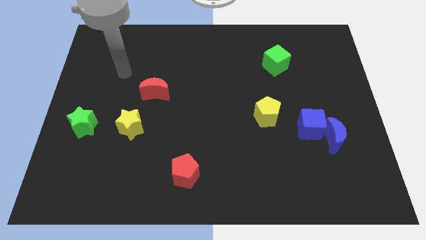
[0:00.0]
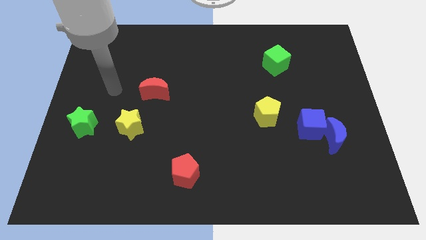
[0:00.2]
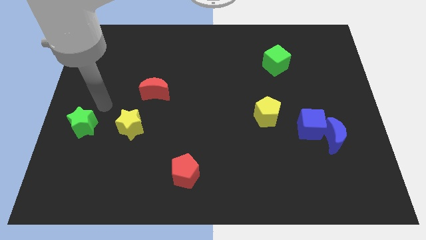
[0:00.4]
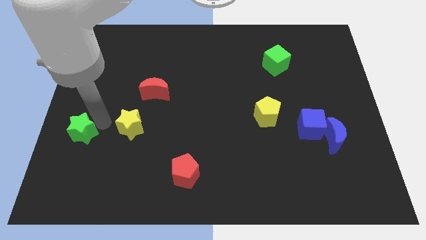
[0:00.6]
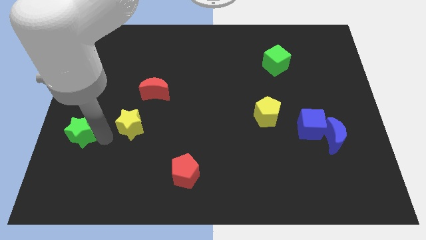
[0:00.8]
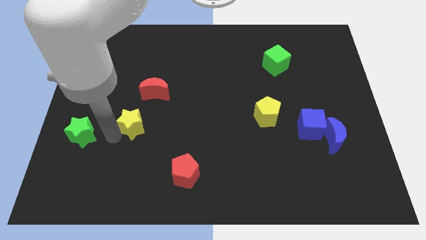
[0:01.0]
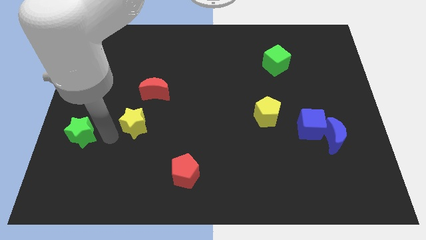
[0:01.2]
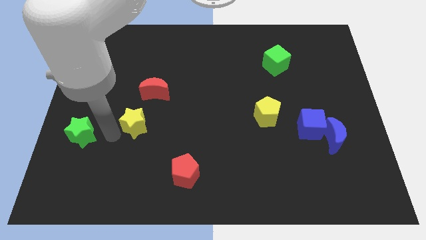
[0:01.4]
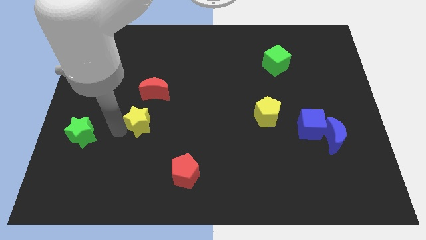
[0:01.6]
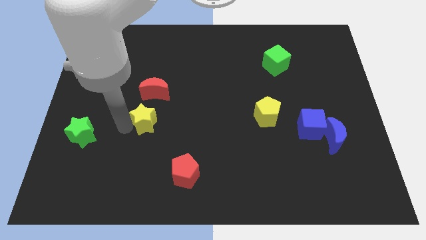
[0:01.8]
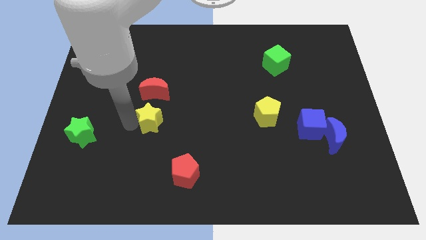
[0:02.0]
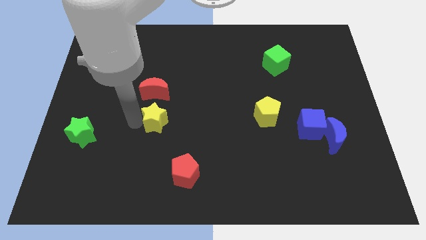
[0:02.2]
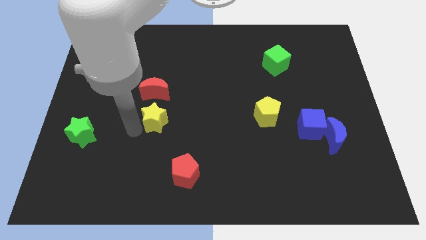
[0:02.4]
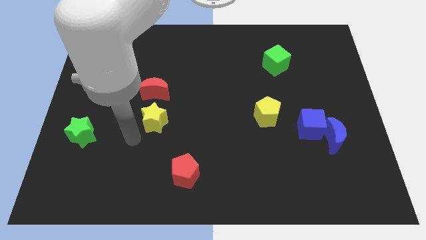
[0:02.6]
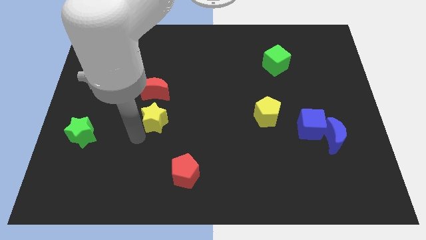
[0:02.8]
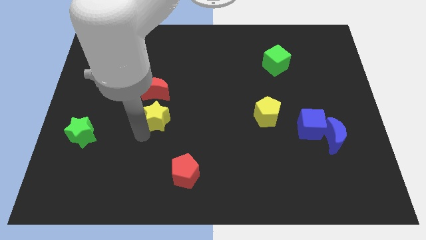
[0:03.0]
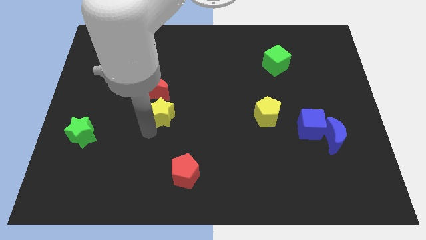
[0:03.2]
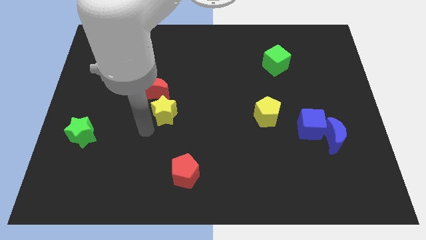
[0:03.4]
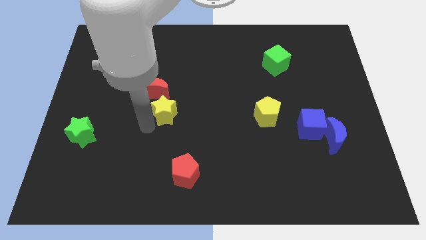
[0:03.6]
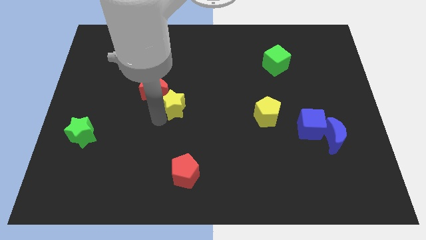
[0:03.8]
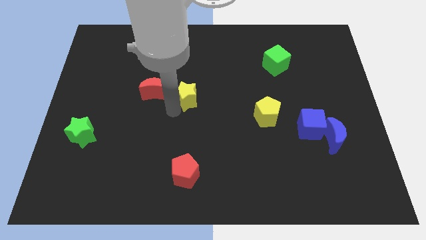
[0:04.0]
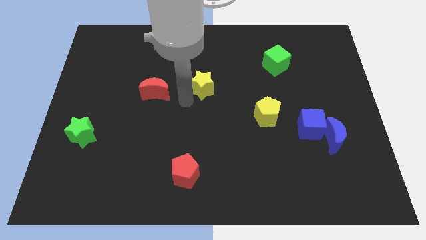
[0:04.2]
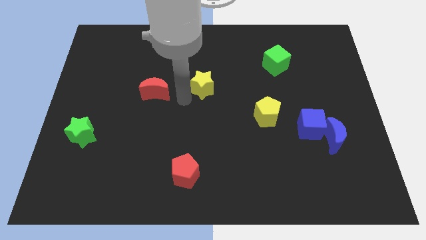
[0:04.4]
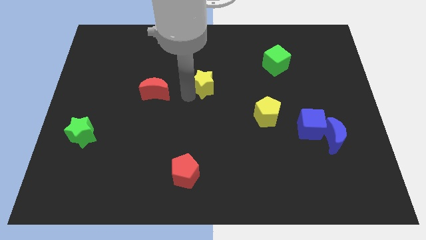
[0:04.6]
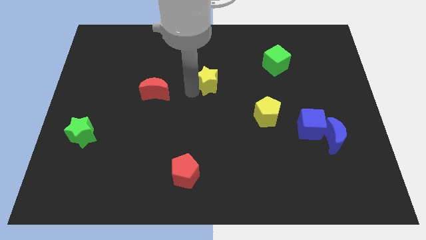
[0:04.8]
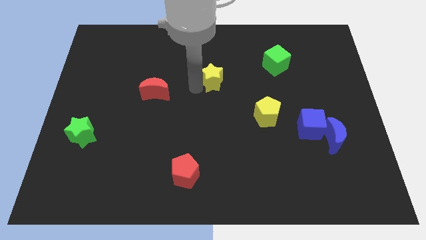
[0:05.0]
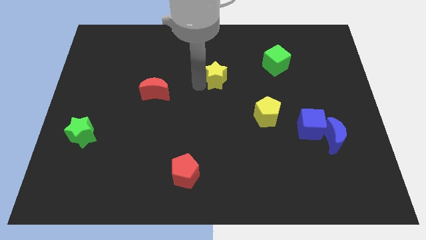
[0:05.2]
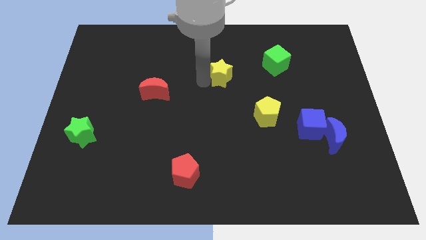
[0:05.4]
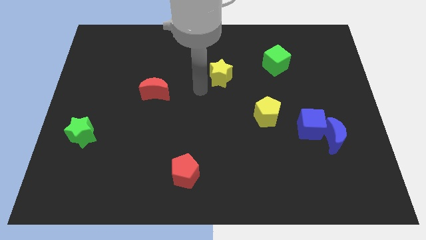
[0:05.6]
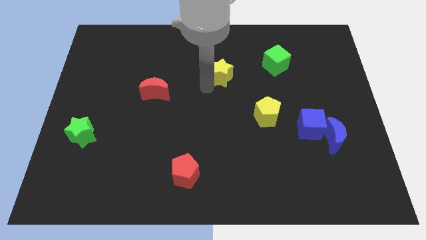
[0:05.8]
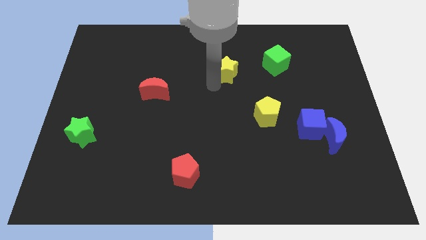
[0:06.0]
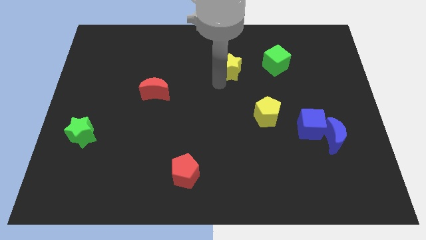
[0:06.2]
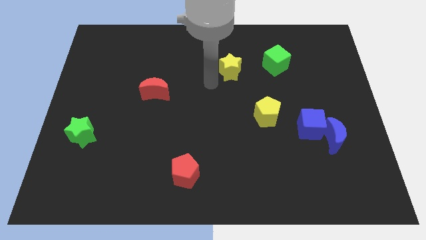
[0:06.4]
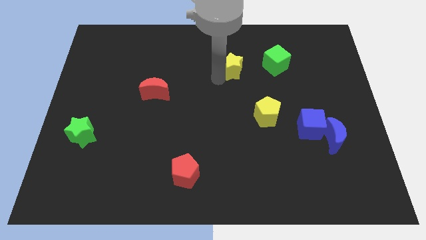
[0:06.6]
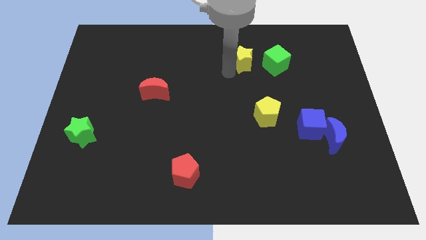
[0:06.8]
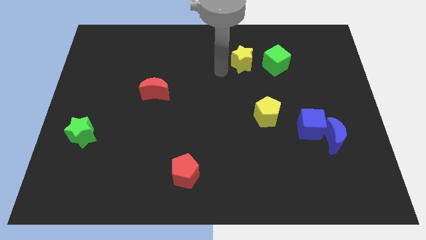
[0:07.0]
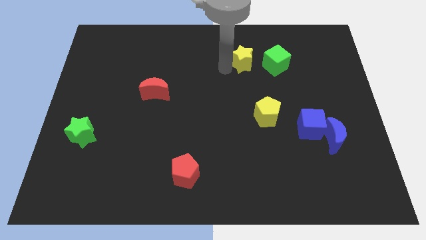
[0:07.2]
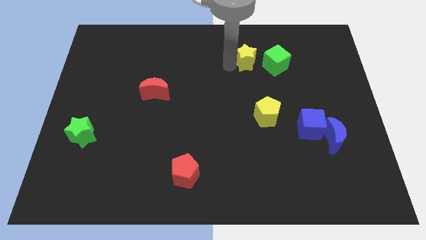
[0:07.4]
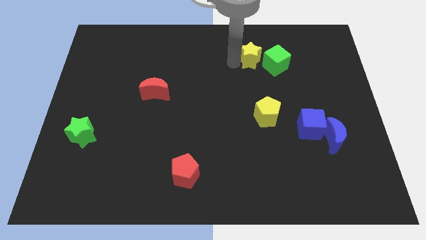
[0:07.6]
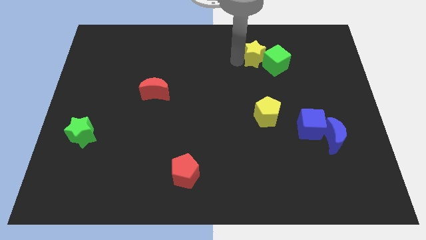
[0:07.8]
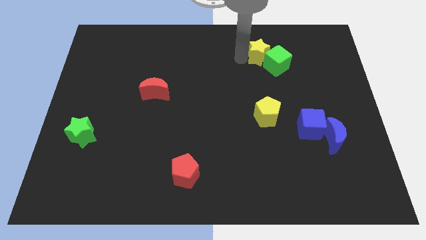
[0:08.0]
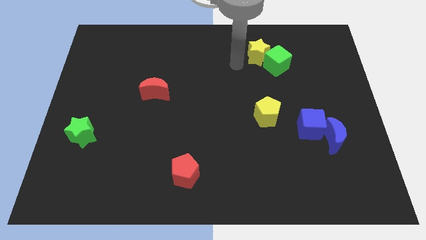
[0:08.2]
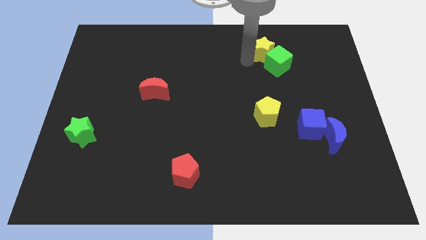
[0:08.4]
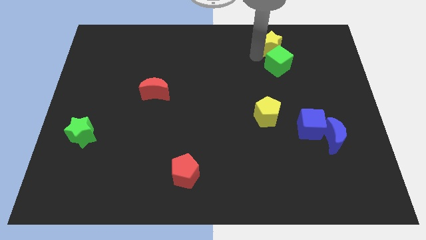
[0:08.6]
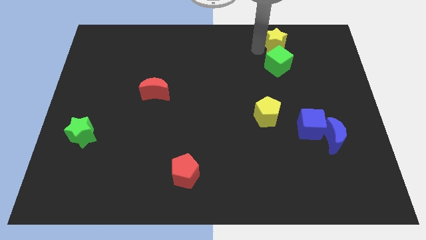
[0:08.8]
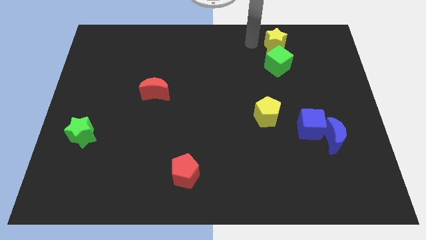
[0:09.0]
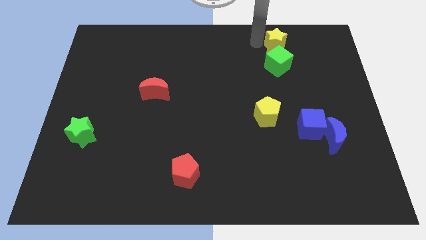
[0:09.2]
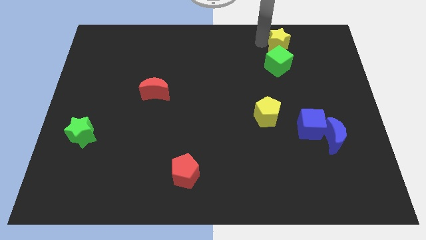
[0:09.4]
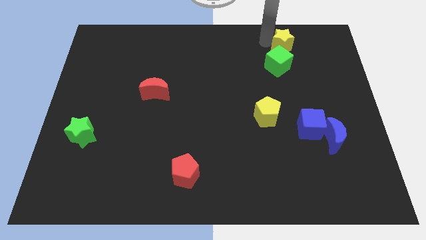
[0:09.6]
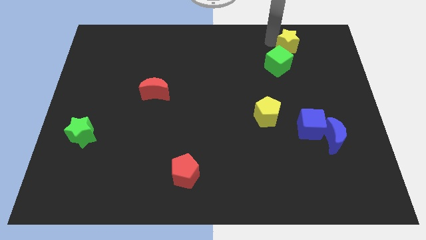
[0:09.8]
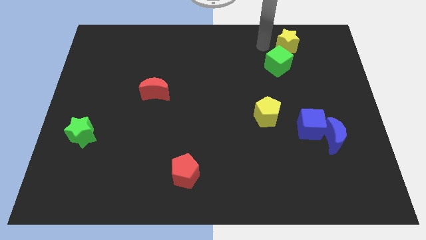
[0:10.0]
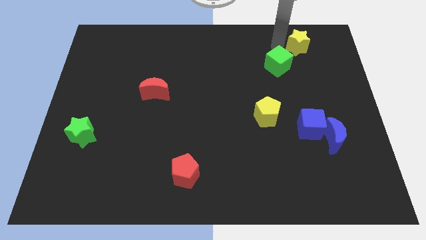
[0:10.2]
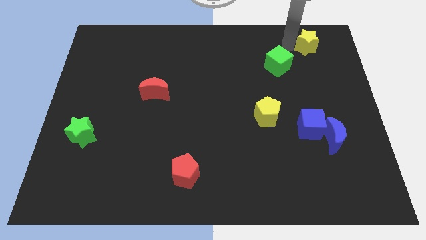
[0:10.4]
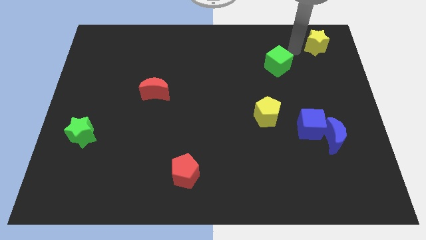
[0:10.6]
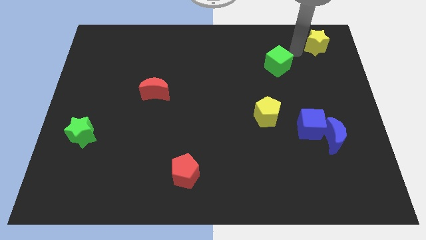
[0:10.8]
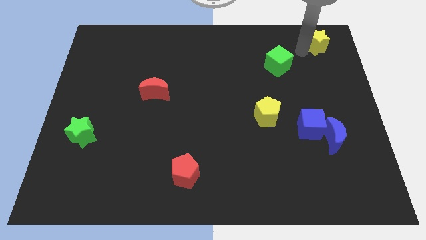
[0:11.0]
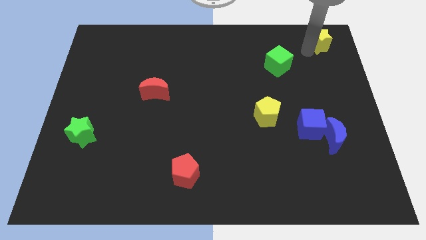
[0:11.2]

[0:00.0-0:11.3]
slide the yellow star to the upper right corner

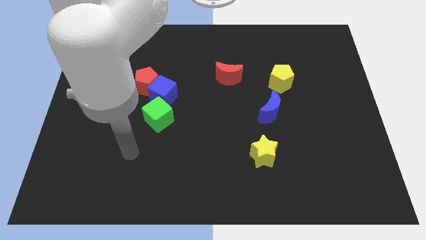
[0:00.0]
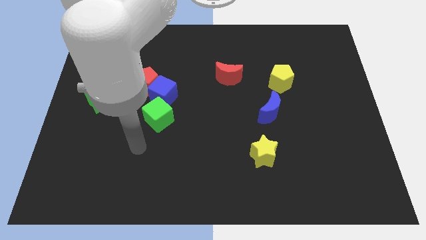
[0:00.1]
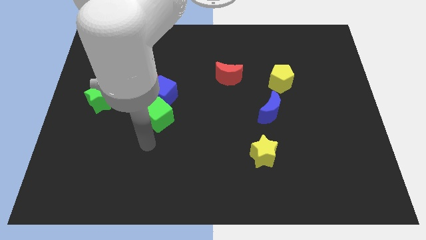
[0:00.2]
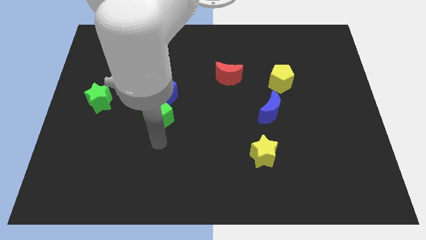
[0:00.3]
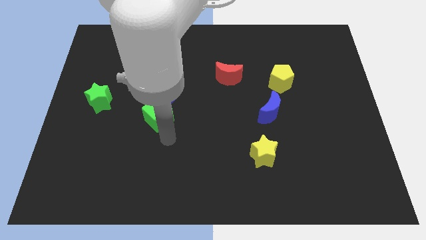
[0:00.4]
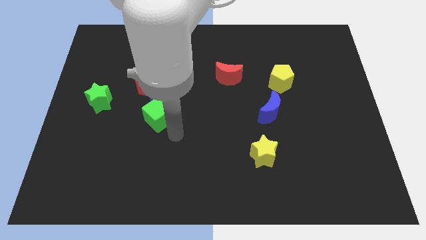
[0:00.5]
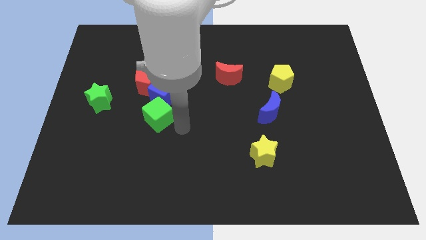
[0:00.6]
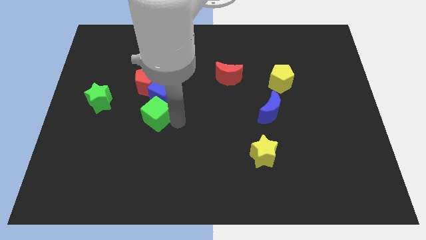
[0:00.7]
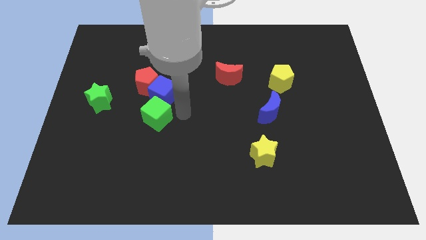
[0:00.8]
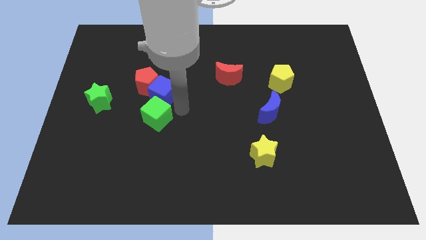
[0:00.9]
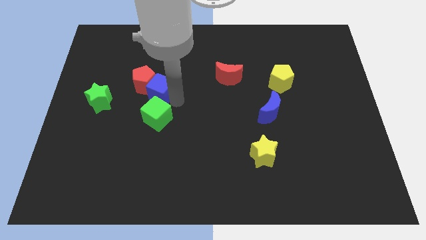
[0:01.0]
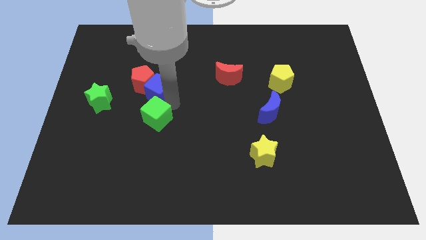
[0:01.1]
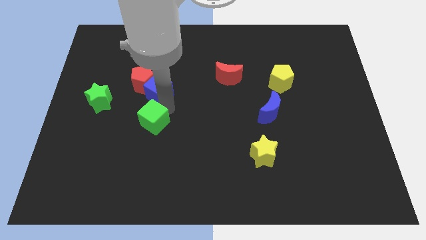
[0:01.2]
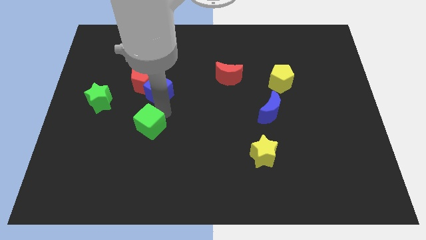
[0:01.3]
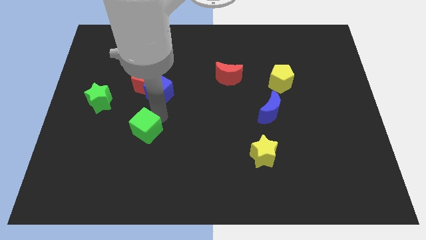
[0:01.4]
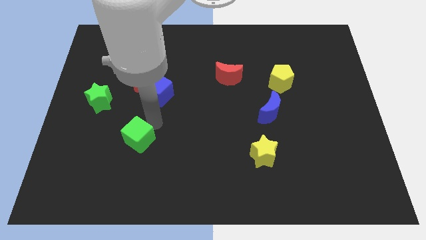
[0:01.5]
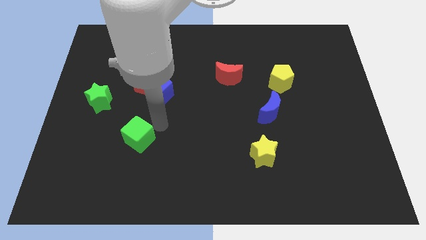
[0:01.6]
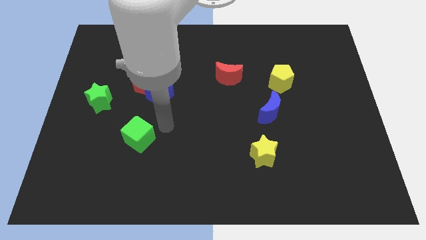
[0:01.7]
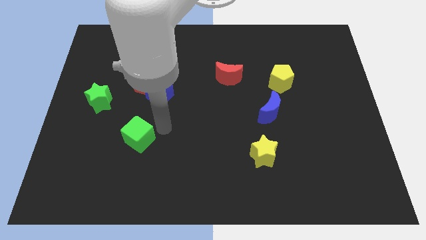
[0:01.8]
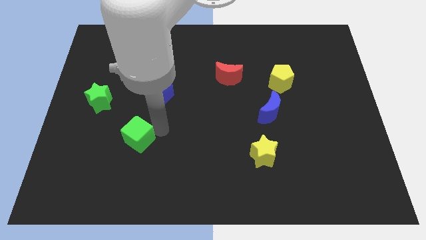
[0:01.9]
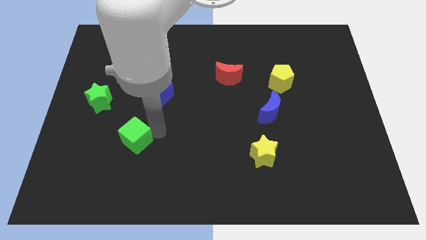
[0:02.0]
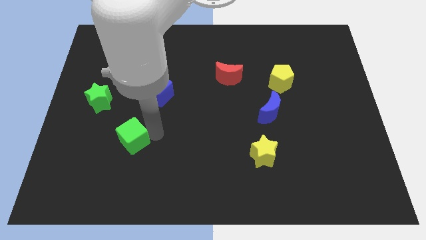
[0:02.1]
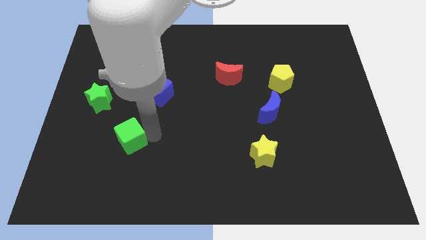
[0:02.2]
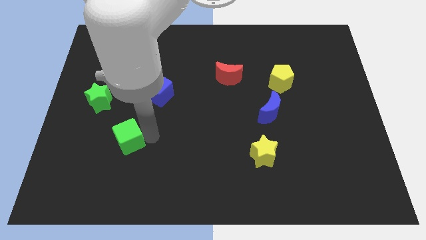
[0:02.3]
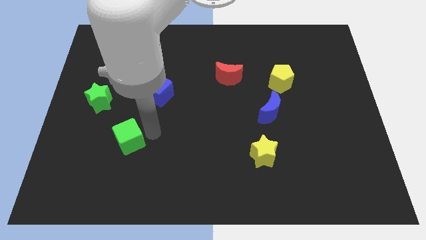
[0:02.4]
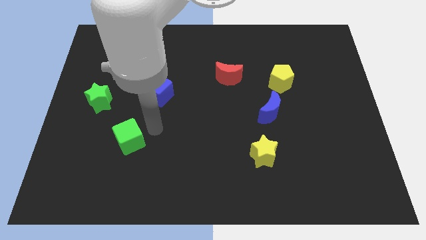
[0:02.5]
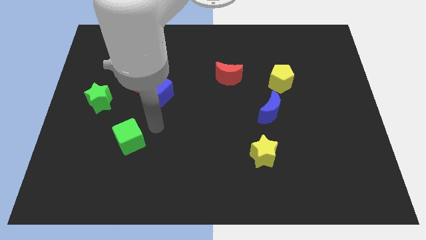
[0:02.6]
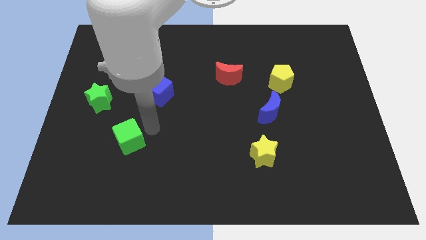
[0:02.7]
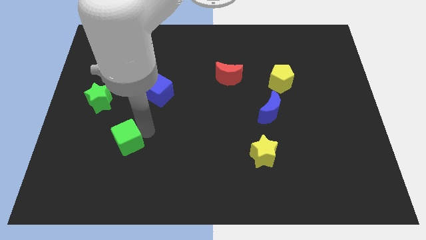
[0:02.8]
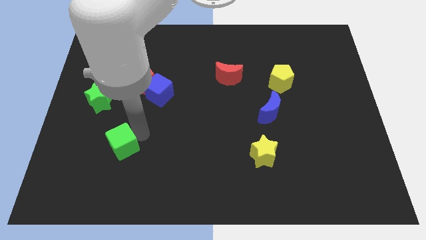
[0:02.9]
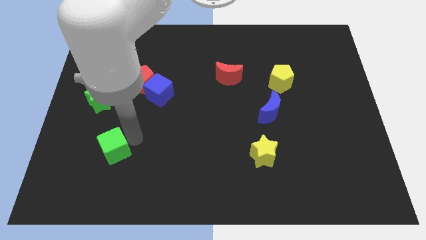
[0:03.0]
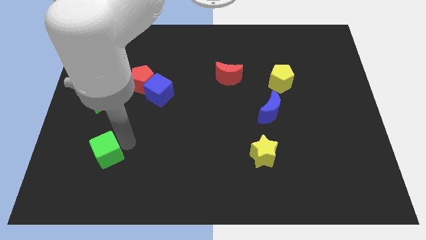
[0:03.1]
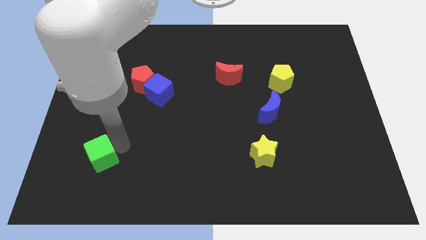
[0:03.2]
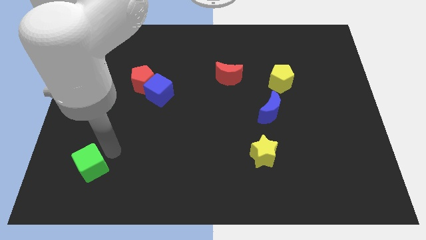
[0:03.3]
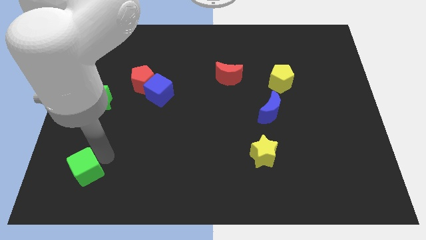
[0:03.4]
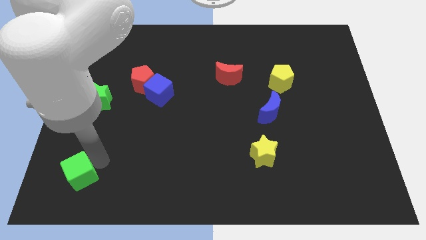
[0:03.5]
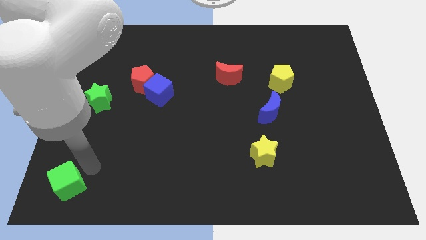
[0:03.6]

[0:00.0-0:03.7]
put the green cube to the bottom left
